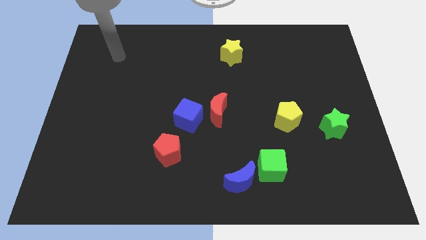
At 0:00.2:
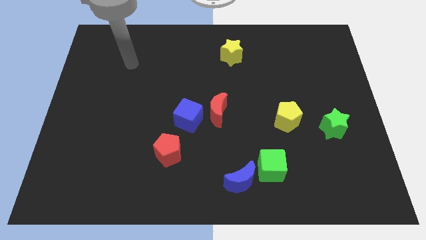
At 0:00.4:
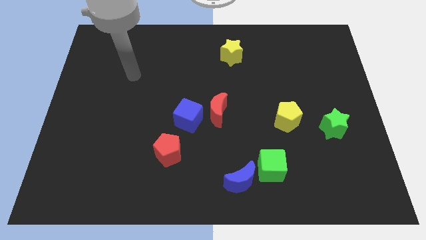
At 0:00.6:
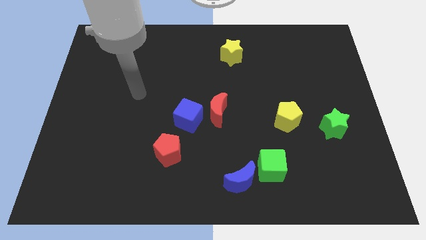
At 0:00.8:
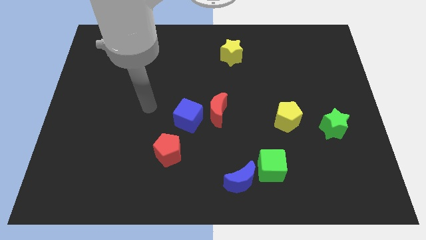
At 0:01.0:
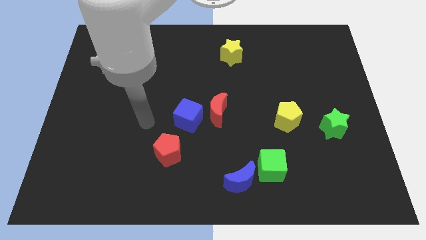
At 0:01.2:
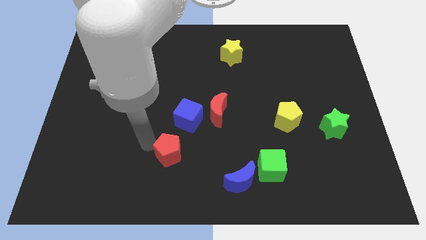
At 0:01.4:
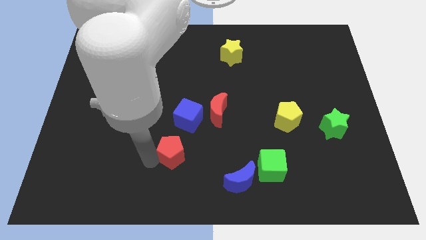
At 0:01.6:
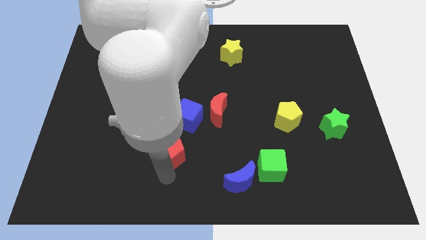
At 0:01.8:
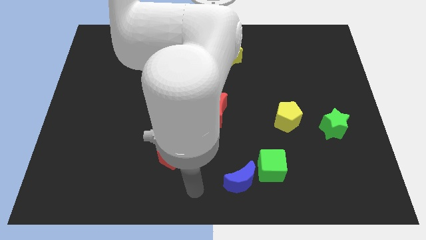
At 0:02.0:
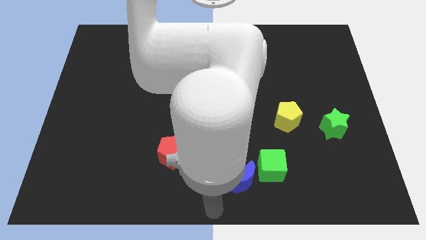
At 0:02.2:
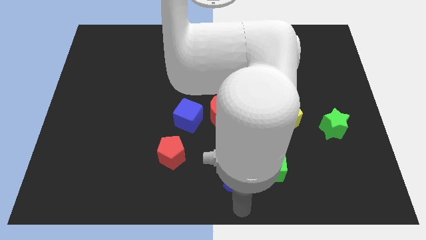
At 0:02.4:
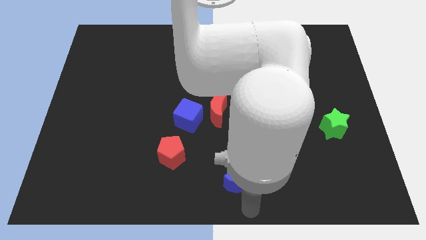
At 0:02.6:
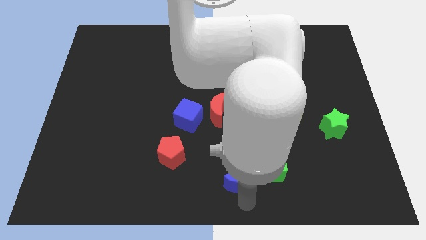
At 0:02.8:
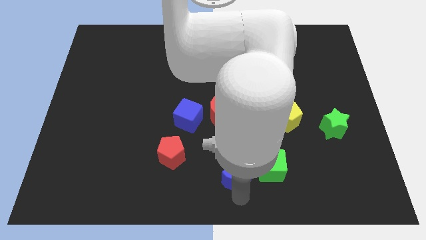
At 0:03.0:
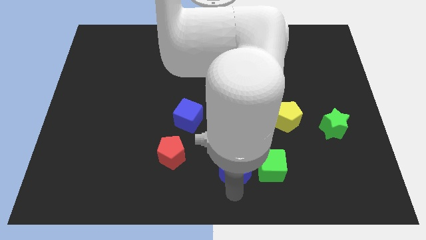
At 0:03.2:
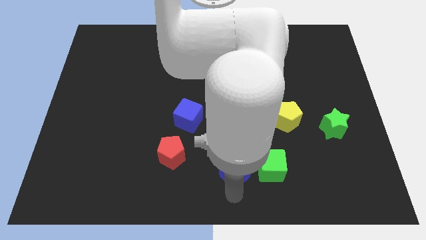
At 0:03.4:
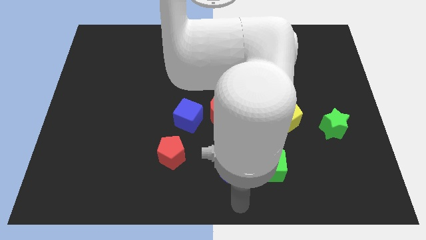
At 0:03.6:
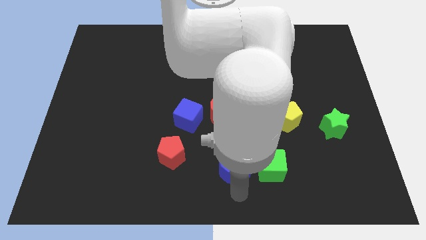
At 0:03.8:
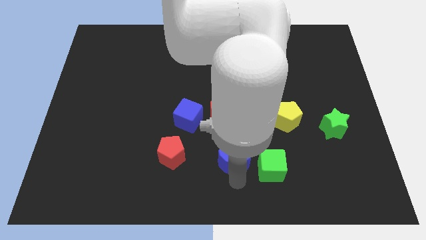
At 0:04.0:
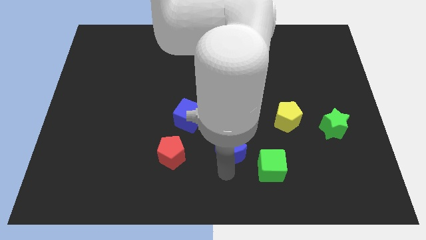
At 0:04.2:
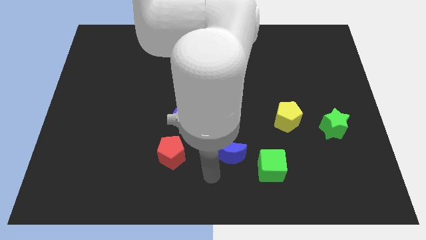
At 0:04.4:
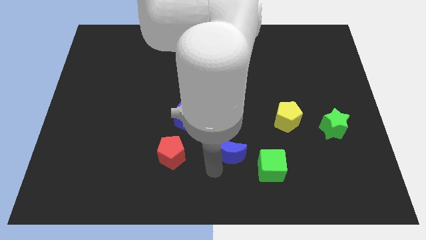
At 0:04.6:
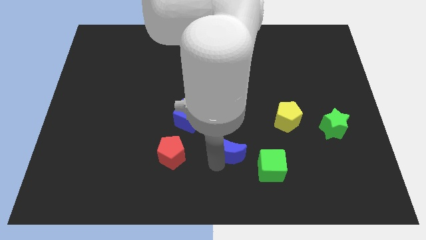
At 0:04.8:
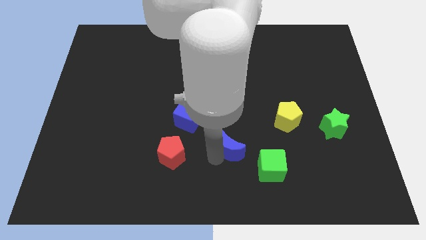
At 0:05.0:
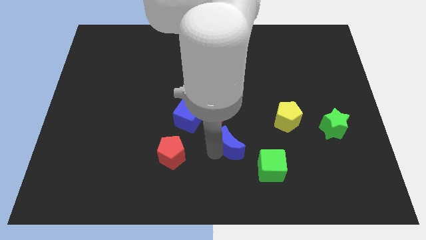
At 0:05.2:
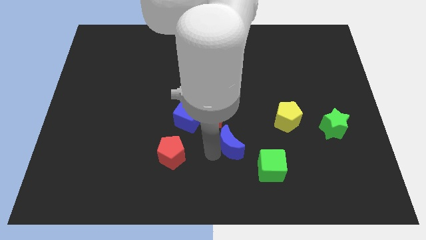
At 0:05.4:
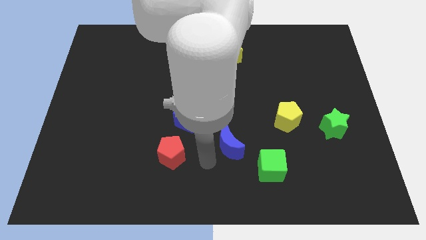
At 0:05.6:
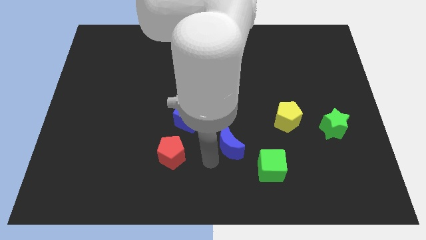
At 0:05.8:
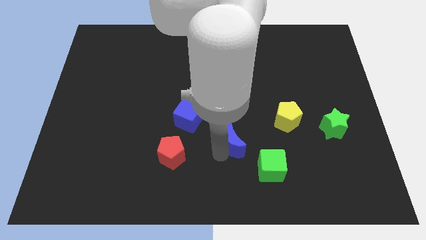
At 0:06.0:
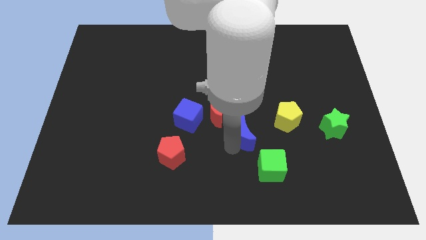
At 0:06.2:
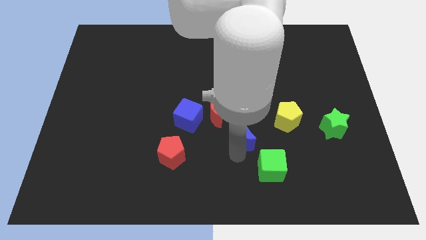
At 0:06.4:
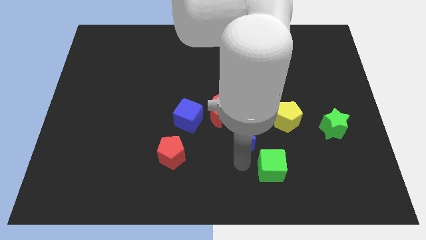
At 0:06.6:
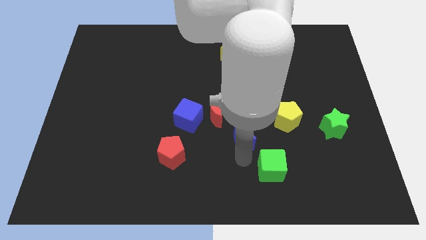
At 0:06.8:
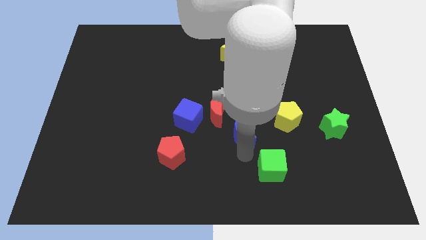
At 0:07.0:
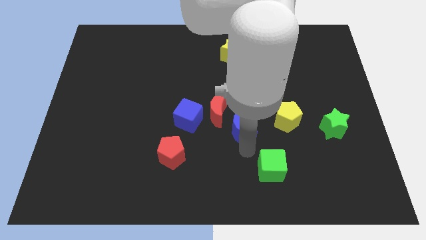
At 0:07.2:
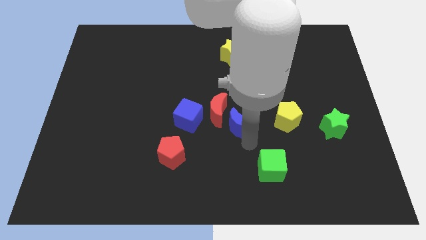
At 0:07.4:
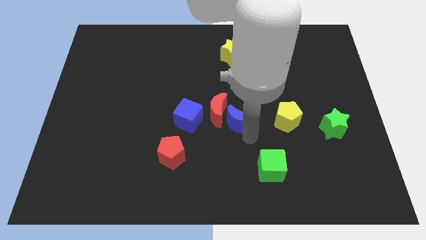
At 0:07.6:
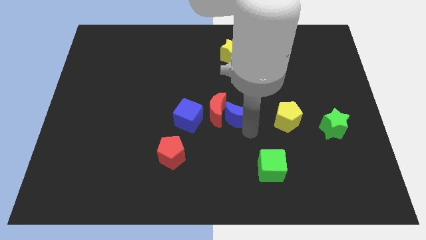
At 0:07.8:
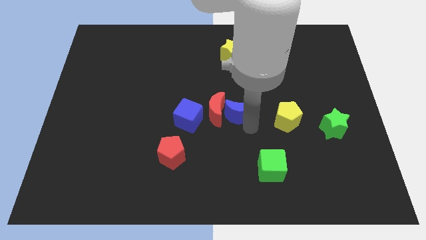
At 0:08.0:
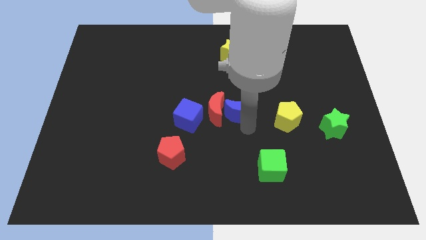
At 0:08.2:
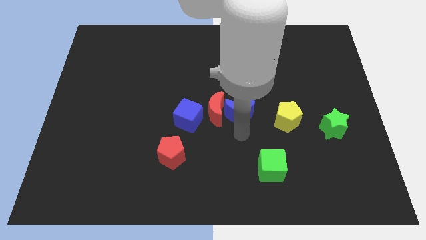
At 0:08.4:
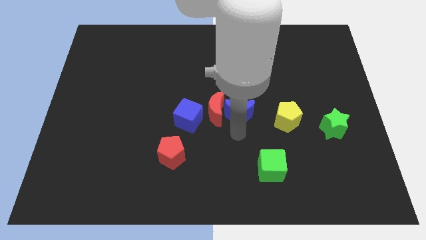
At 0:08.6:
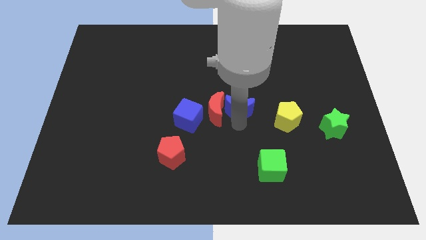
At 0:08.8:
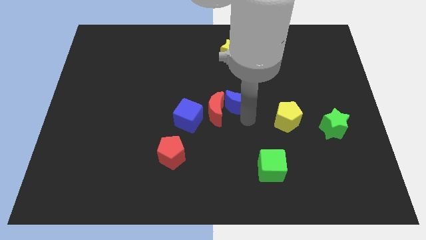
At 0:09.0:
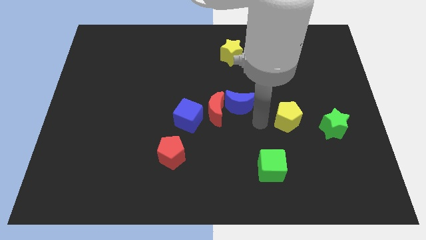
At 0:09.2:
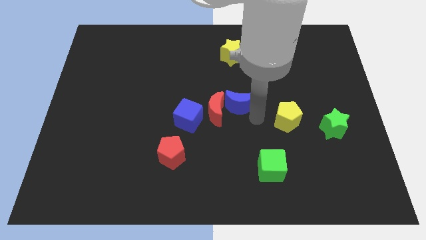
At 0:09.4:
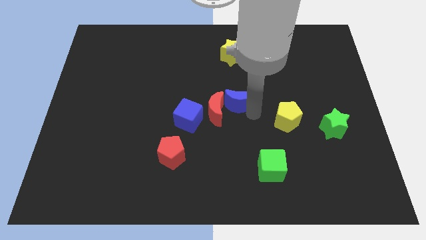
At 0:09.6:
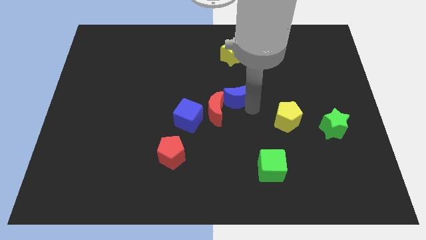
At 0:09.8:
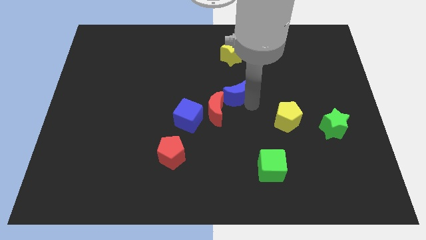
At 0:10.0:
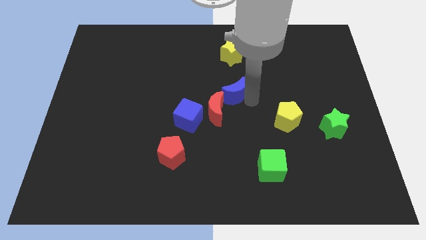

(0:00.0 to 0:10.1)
move the blue moon above the red moon
